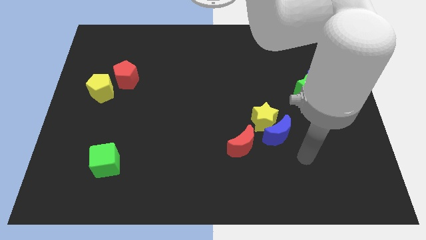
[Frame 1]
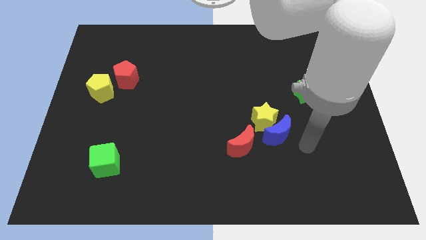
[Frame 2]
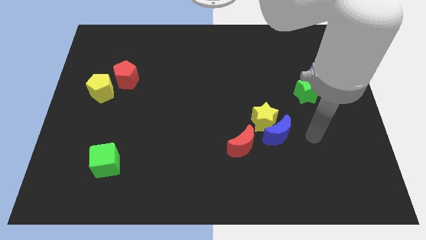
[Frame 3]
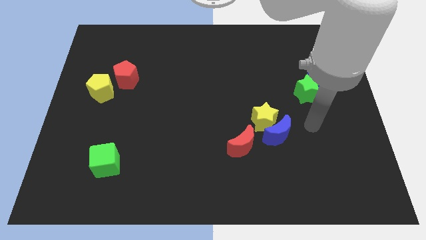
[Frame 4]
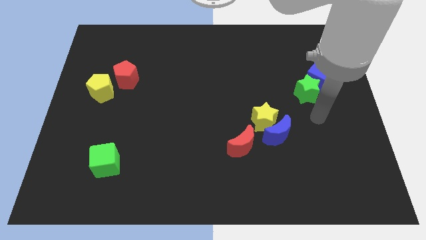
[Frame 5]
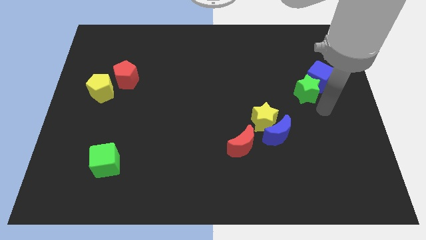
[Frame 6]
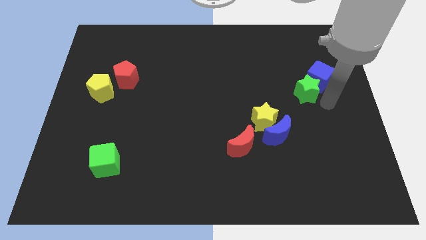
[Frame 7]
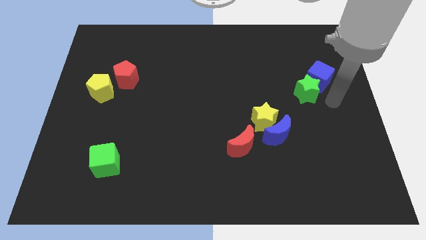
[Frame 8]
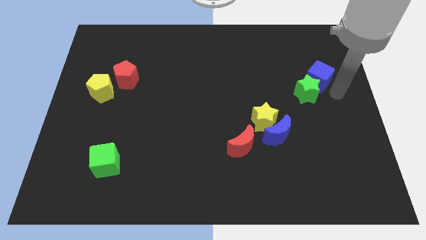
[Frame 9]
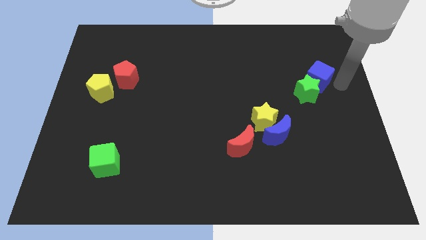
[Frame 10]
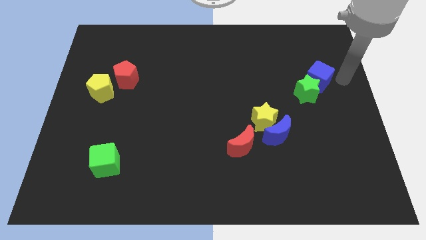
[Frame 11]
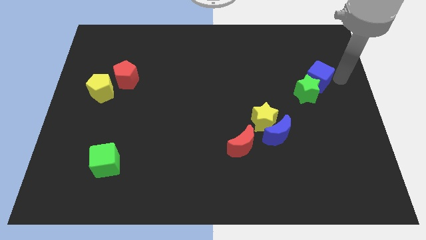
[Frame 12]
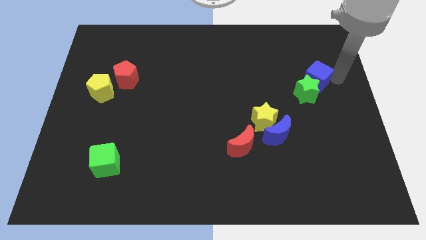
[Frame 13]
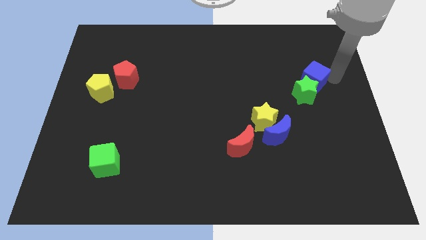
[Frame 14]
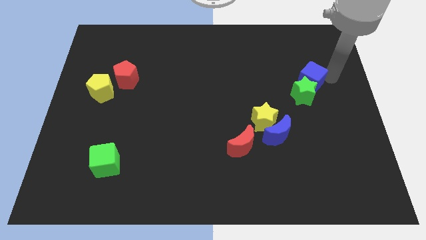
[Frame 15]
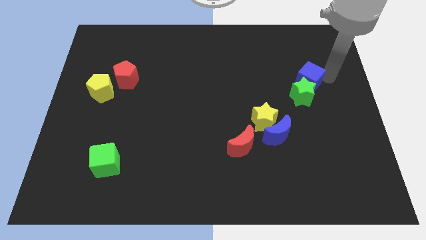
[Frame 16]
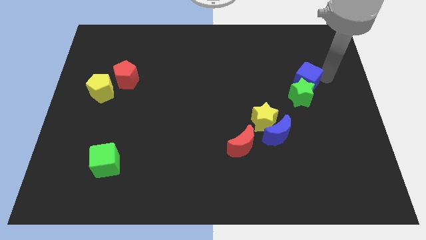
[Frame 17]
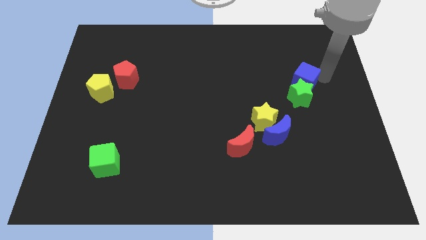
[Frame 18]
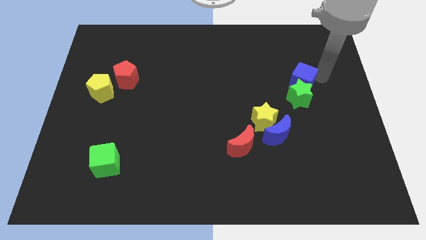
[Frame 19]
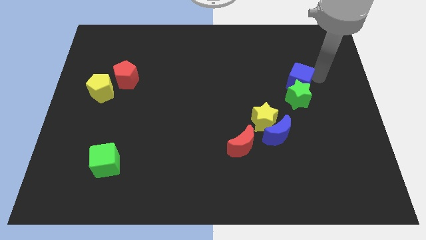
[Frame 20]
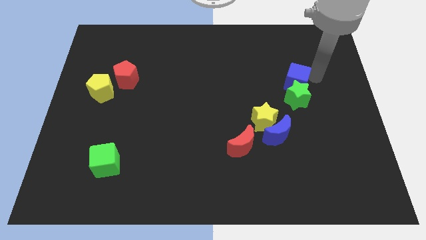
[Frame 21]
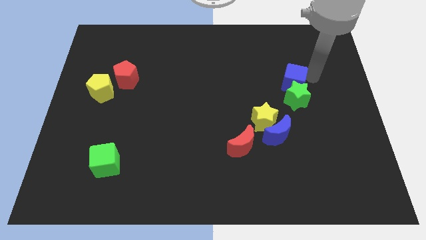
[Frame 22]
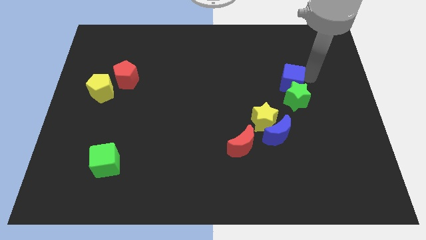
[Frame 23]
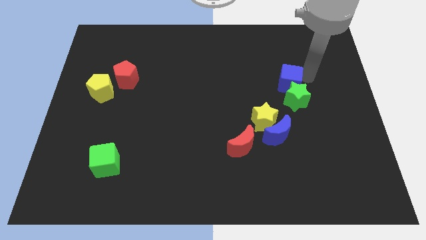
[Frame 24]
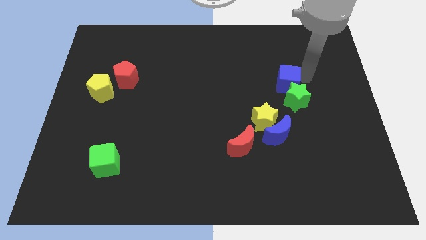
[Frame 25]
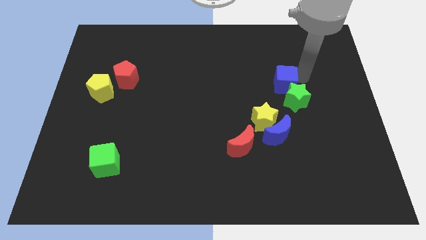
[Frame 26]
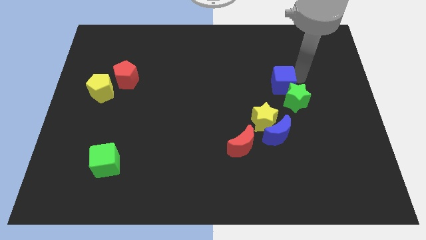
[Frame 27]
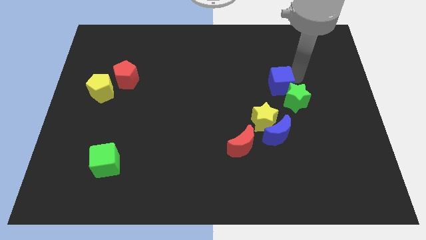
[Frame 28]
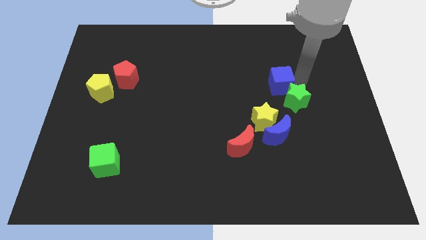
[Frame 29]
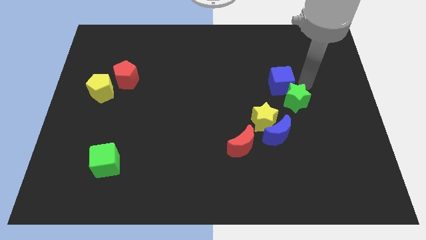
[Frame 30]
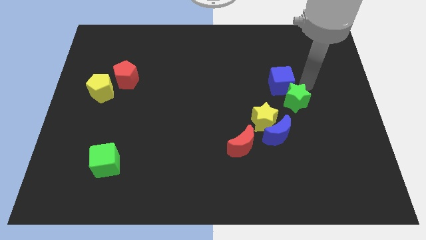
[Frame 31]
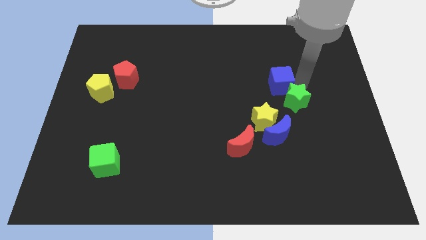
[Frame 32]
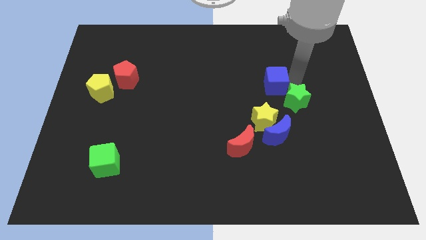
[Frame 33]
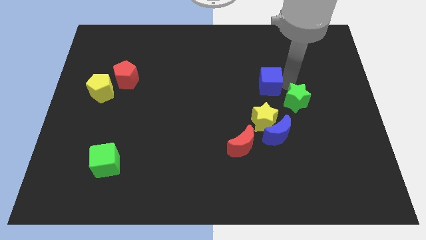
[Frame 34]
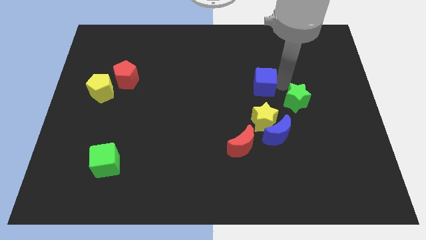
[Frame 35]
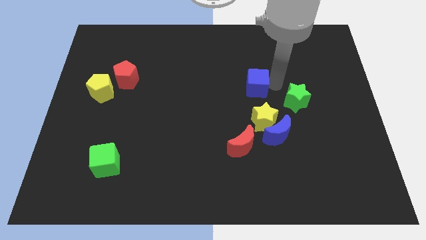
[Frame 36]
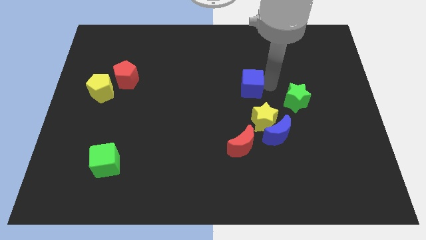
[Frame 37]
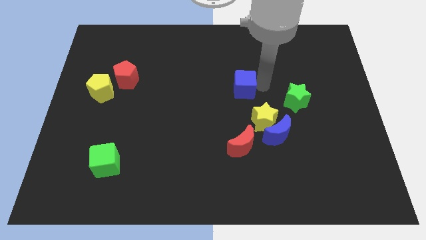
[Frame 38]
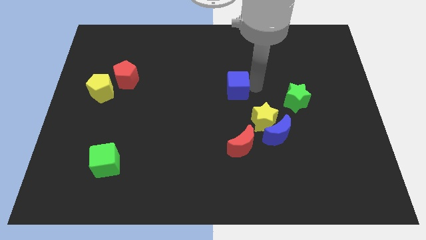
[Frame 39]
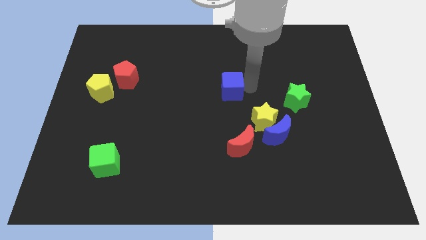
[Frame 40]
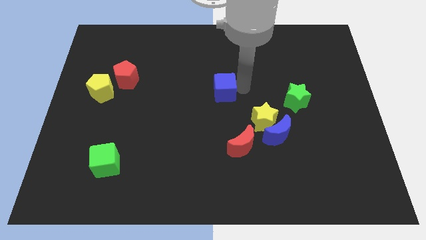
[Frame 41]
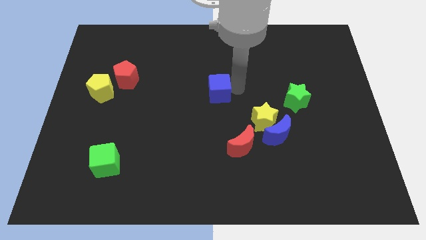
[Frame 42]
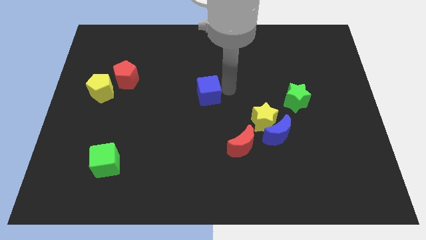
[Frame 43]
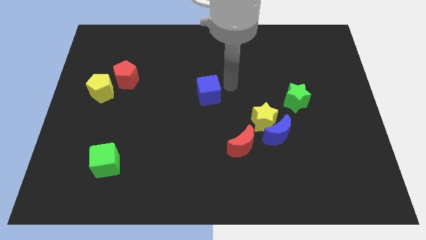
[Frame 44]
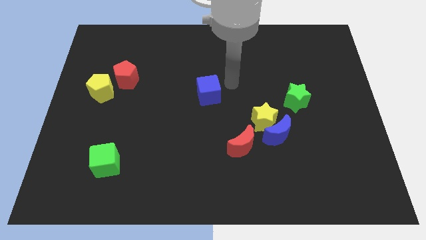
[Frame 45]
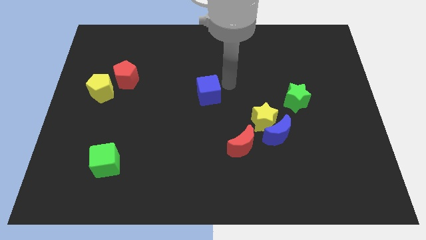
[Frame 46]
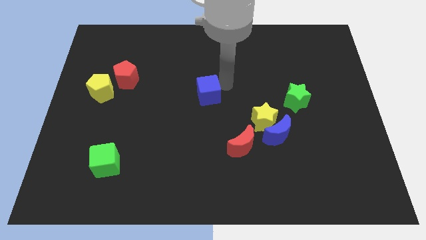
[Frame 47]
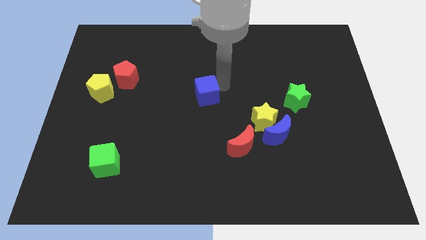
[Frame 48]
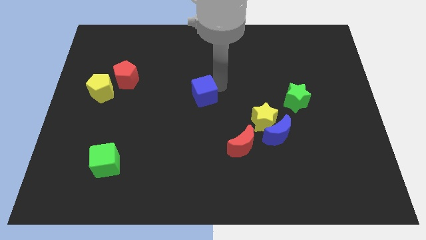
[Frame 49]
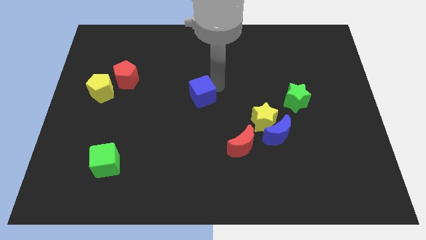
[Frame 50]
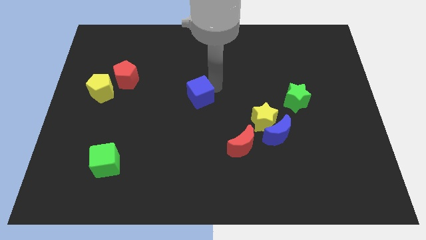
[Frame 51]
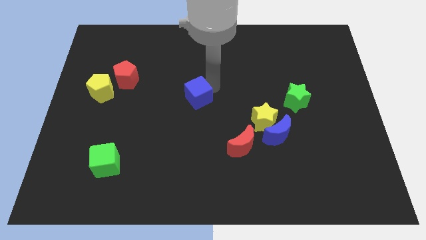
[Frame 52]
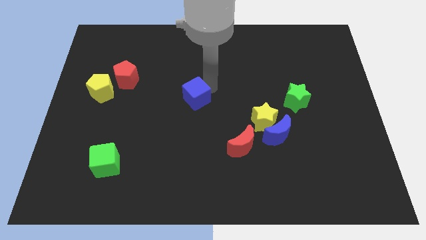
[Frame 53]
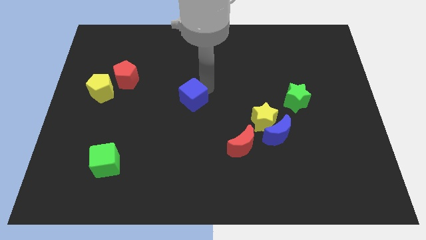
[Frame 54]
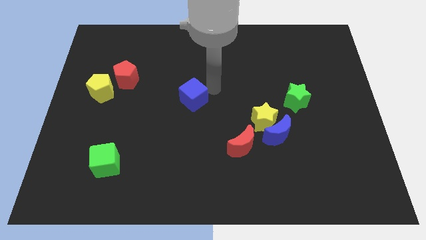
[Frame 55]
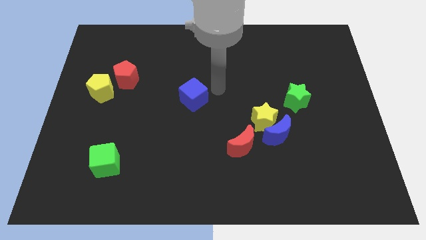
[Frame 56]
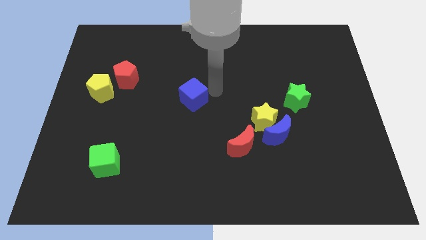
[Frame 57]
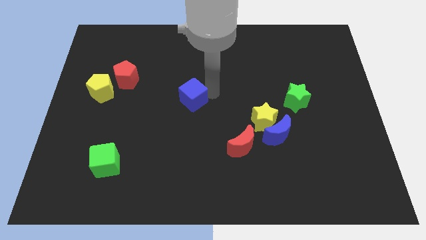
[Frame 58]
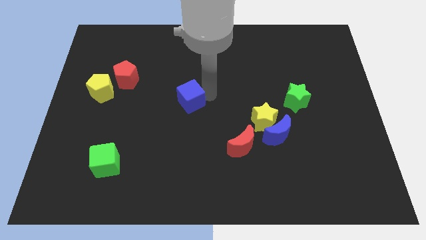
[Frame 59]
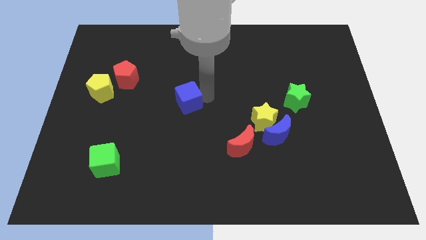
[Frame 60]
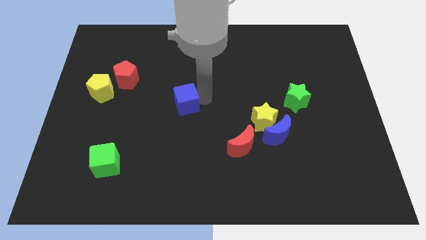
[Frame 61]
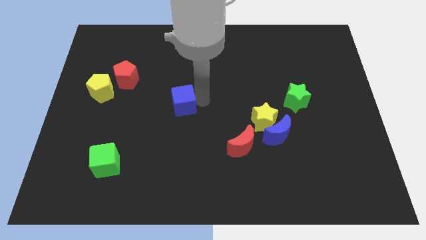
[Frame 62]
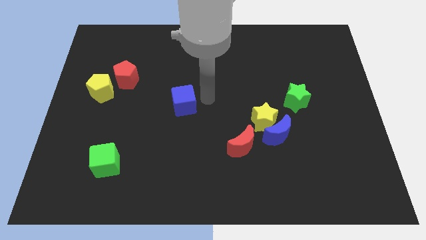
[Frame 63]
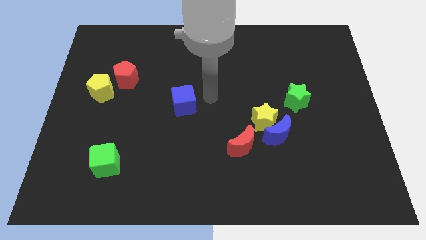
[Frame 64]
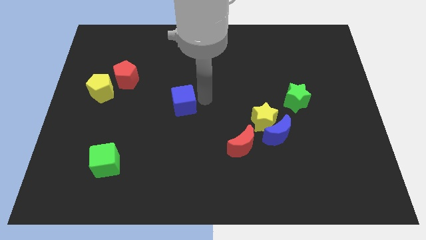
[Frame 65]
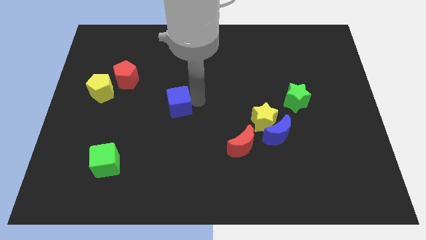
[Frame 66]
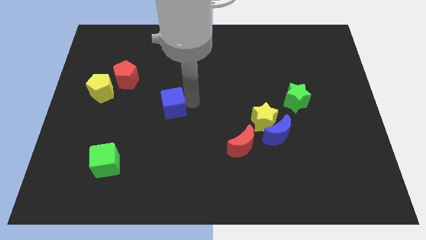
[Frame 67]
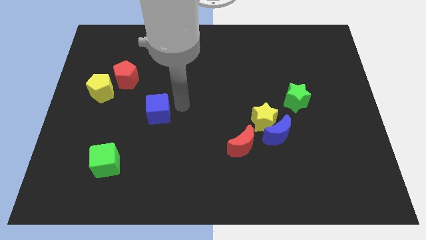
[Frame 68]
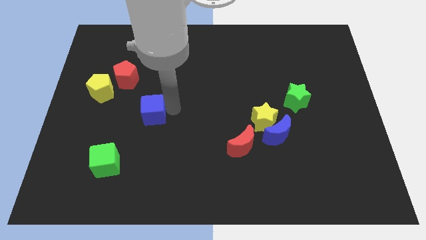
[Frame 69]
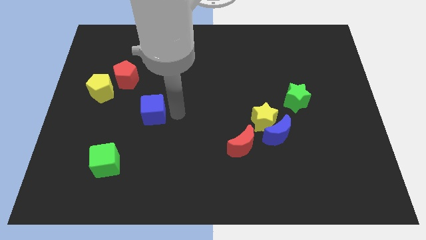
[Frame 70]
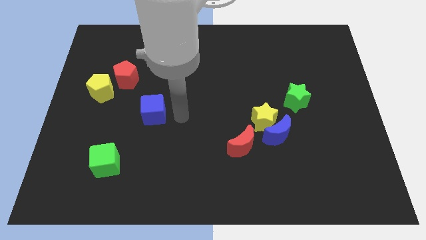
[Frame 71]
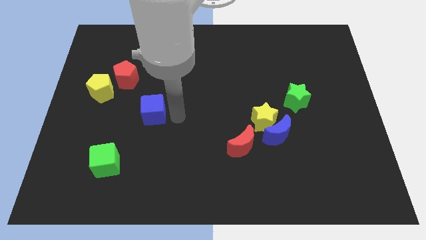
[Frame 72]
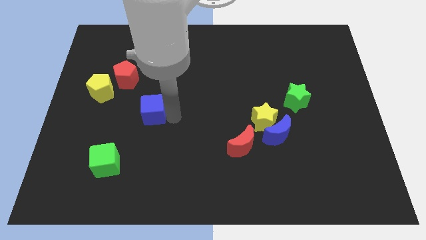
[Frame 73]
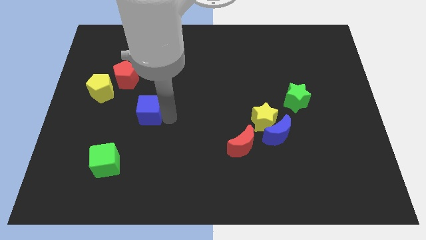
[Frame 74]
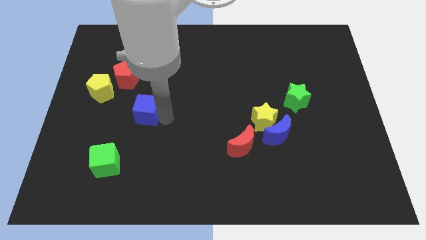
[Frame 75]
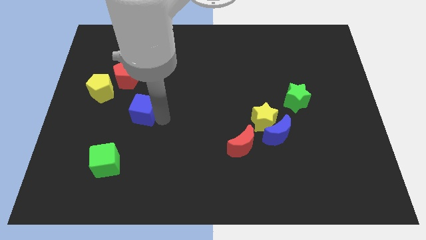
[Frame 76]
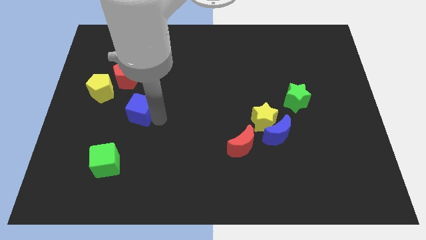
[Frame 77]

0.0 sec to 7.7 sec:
put the blue cube to the bottom right of the yellow pentagon

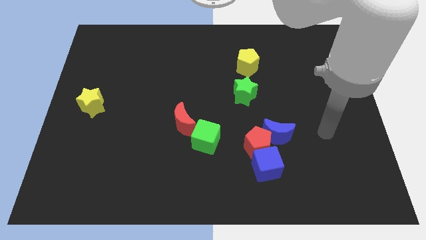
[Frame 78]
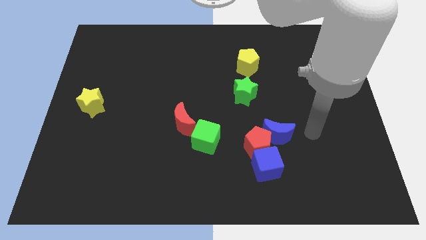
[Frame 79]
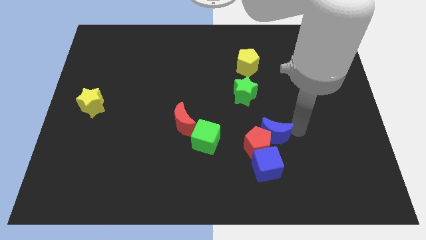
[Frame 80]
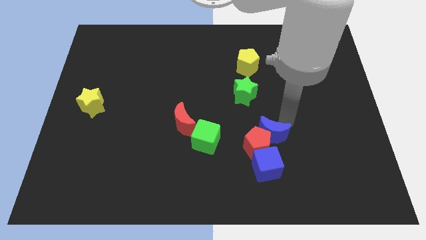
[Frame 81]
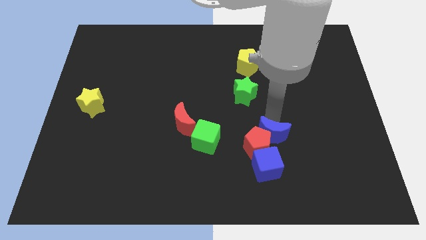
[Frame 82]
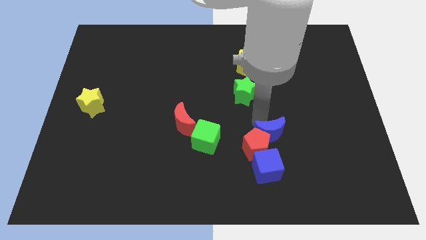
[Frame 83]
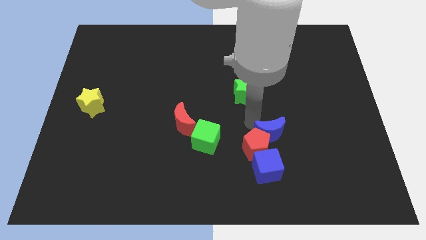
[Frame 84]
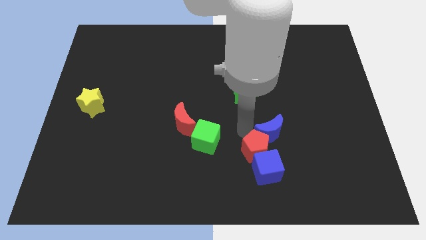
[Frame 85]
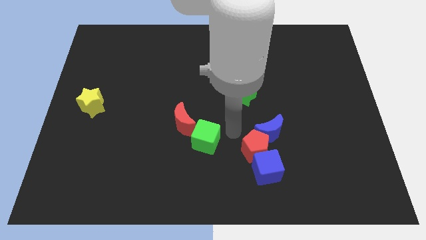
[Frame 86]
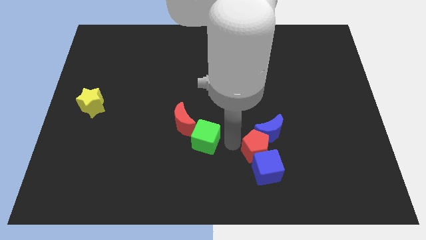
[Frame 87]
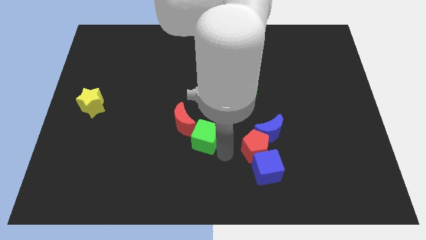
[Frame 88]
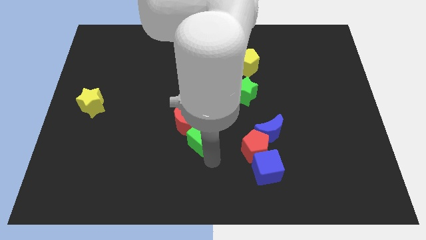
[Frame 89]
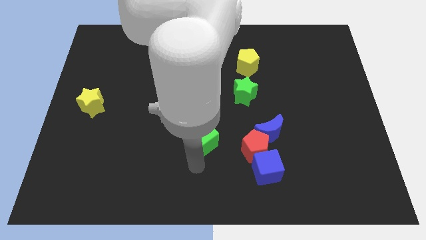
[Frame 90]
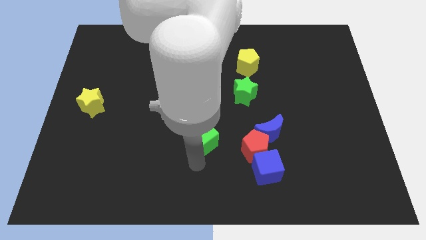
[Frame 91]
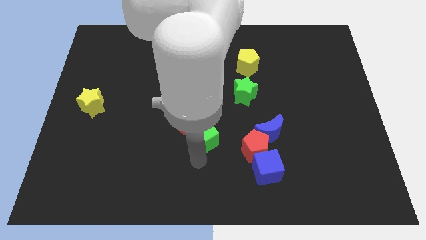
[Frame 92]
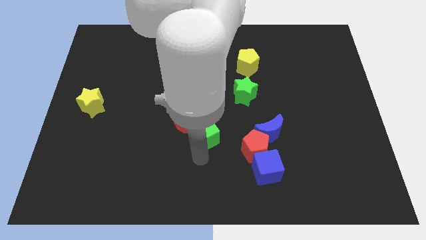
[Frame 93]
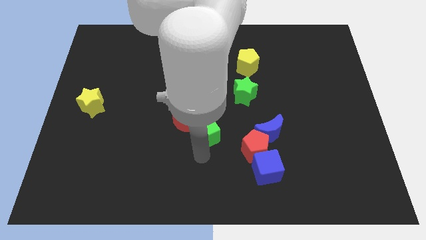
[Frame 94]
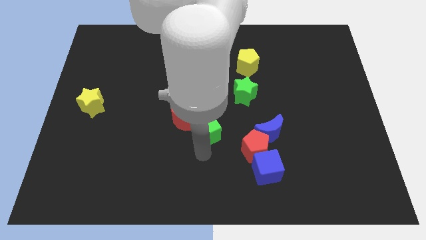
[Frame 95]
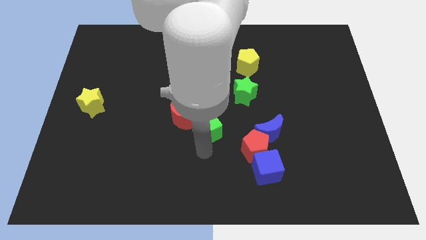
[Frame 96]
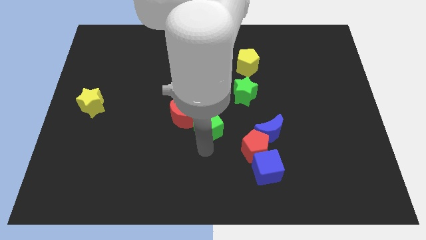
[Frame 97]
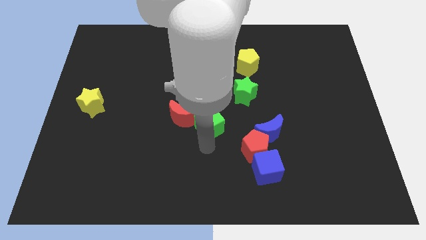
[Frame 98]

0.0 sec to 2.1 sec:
push the green cube to the bottom left of the green star
